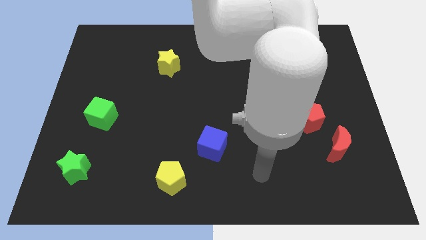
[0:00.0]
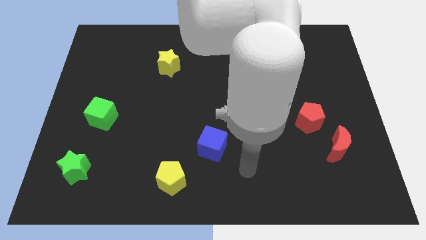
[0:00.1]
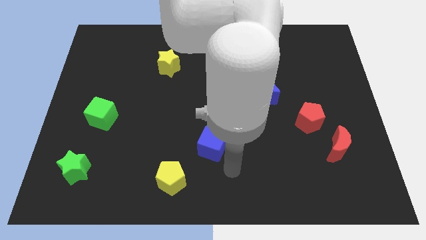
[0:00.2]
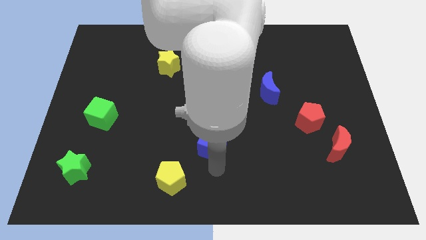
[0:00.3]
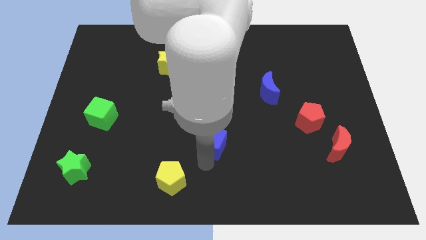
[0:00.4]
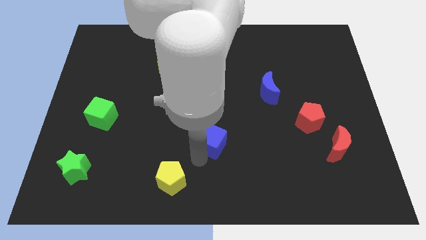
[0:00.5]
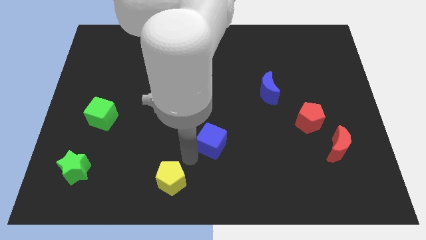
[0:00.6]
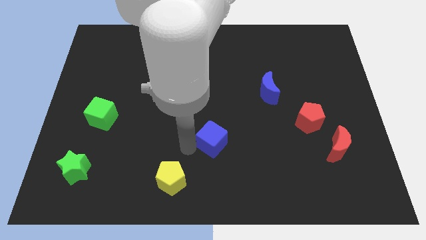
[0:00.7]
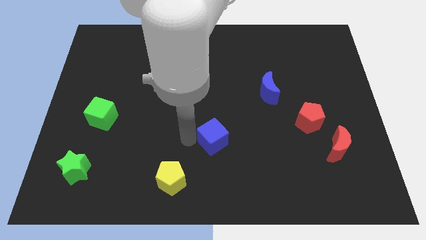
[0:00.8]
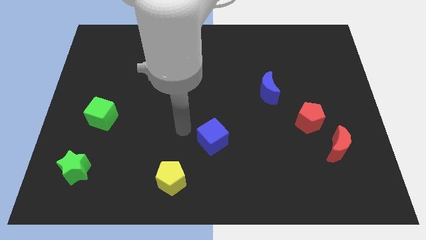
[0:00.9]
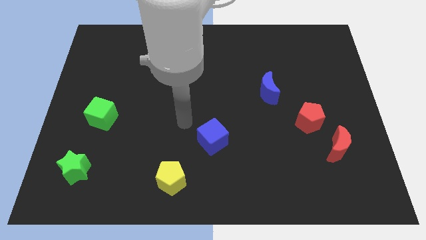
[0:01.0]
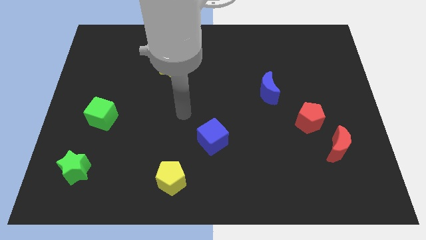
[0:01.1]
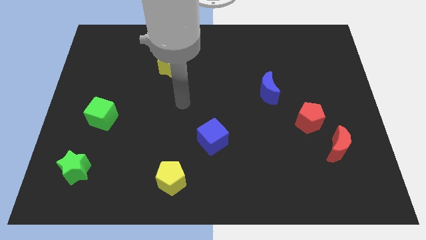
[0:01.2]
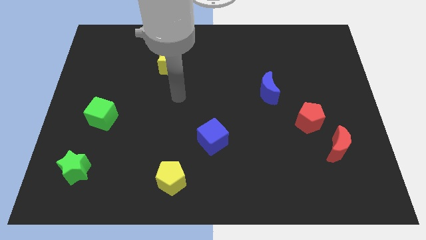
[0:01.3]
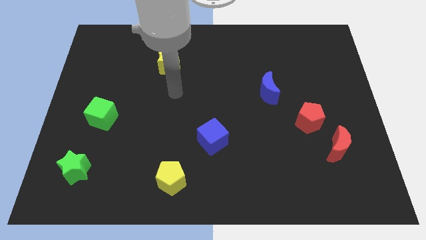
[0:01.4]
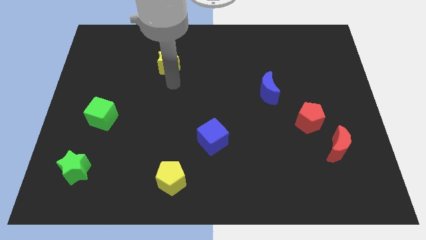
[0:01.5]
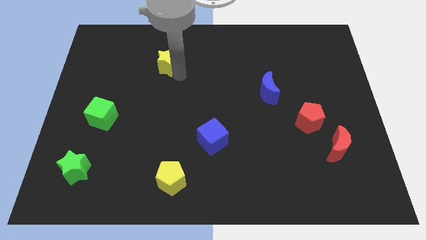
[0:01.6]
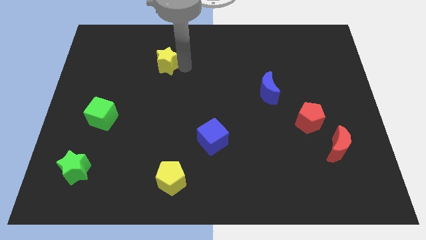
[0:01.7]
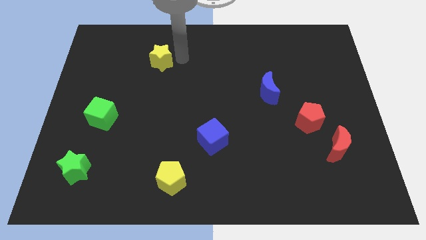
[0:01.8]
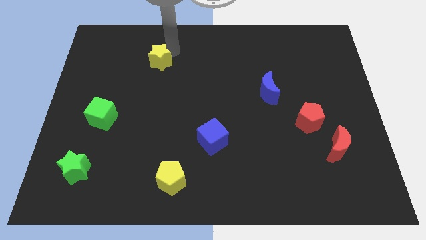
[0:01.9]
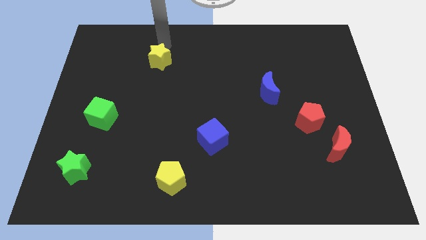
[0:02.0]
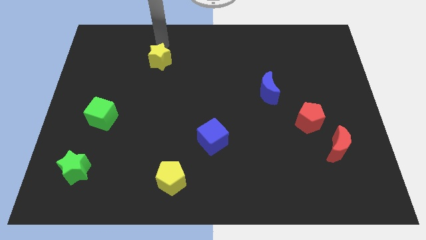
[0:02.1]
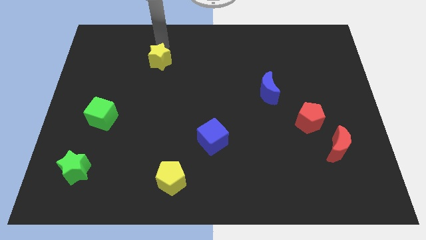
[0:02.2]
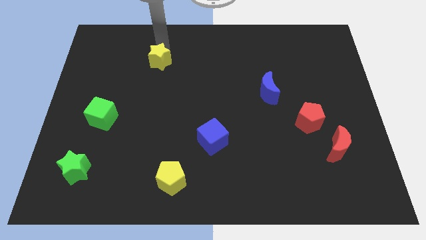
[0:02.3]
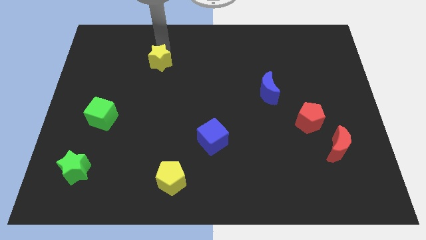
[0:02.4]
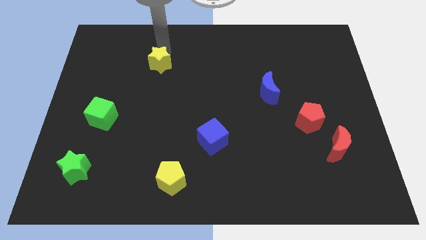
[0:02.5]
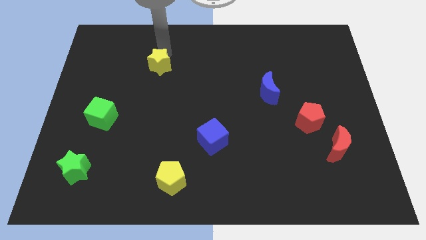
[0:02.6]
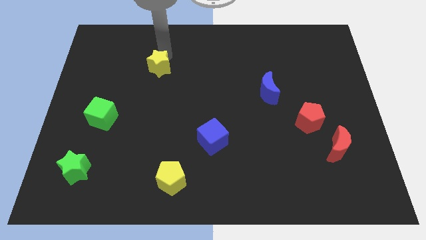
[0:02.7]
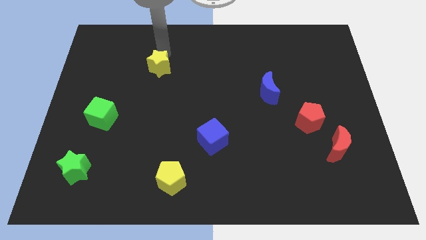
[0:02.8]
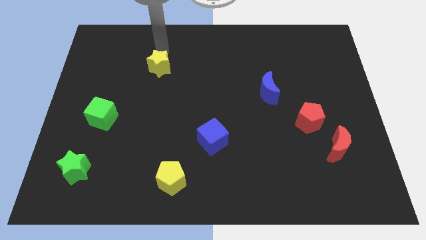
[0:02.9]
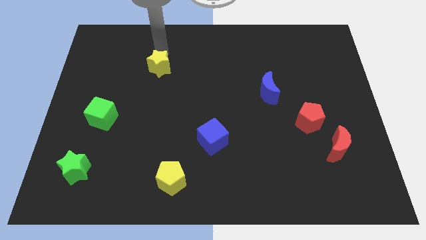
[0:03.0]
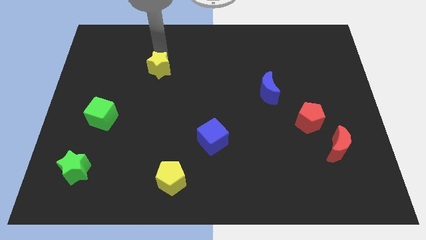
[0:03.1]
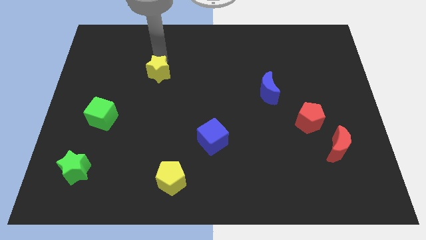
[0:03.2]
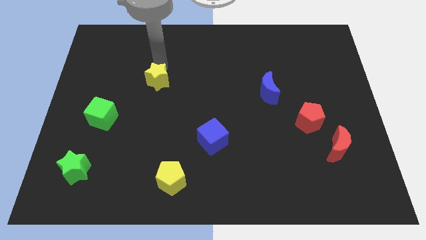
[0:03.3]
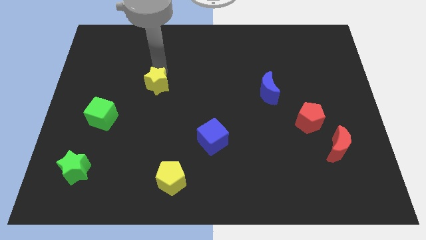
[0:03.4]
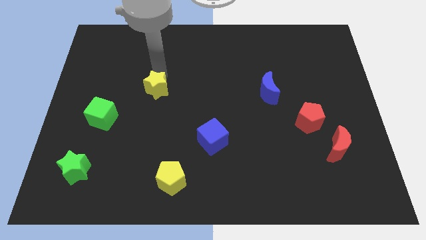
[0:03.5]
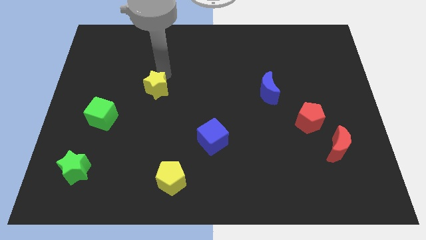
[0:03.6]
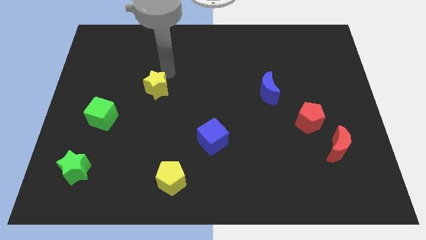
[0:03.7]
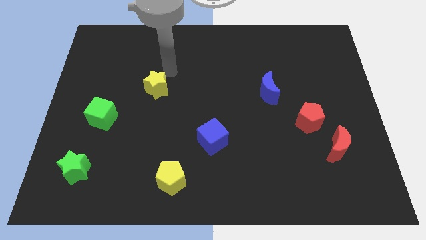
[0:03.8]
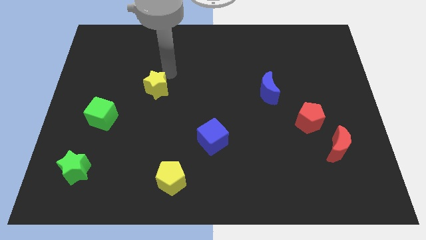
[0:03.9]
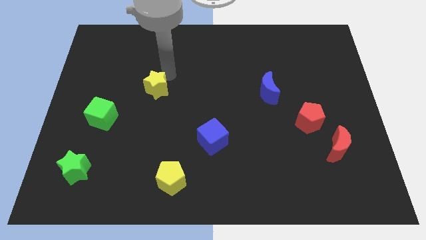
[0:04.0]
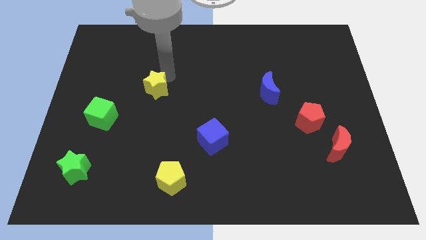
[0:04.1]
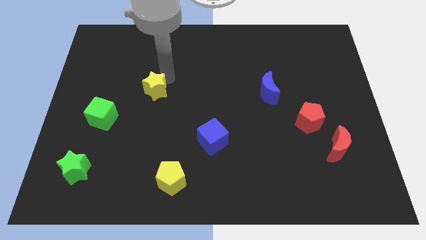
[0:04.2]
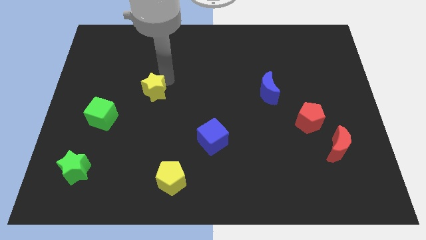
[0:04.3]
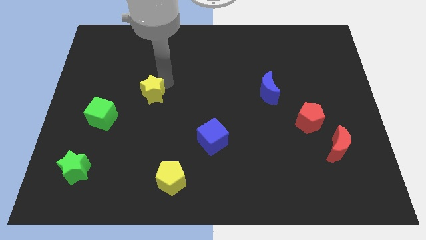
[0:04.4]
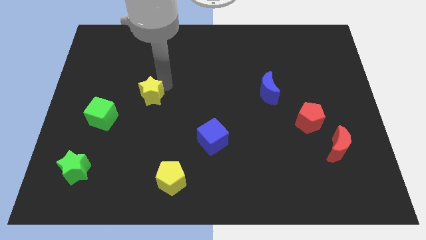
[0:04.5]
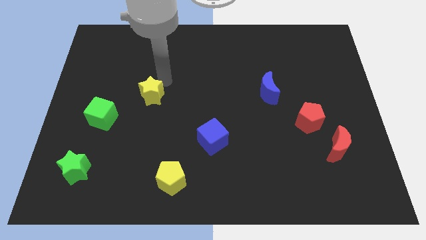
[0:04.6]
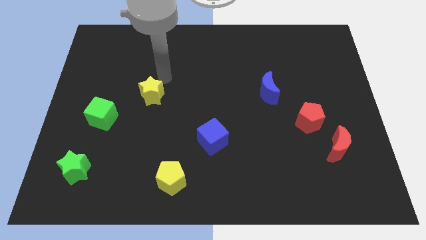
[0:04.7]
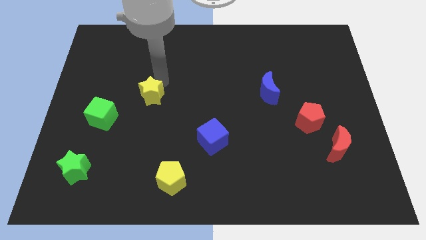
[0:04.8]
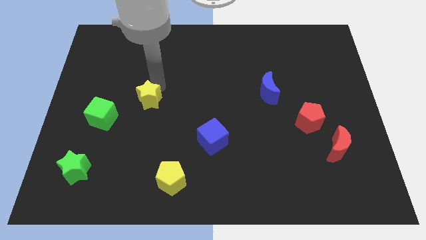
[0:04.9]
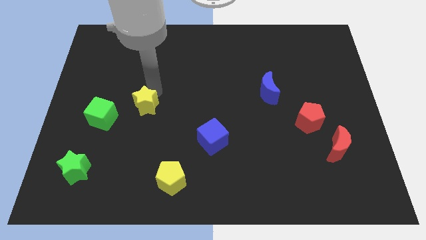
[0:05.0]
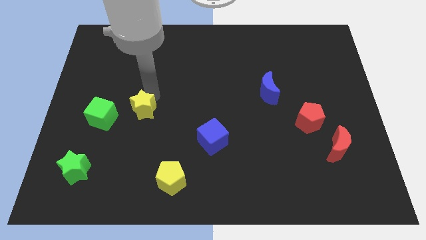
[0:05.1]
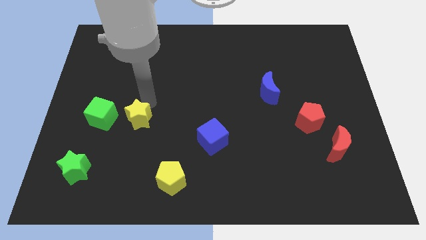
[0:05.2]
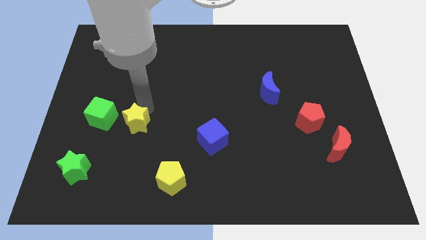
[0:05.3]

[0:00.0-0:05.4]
push the yellow star to the bottom right of the green cube
